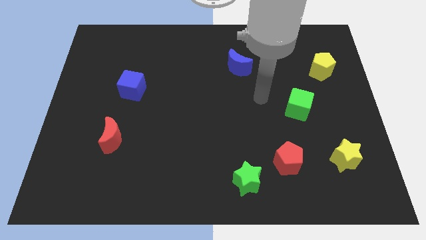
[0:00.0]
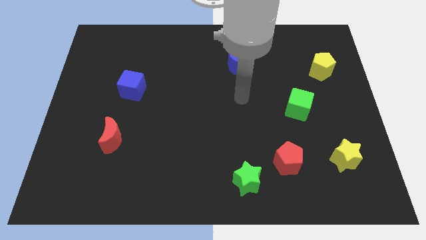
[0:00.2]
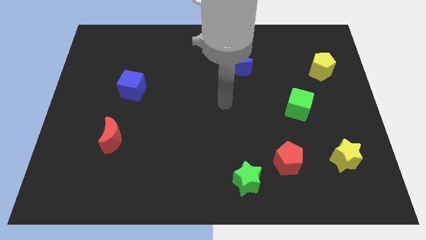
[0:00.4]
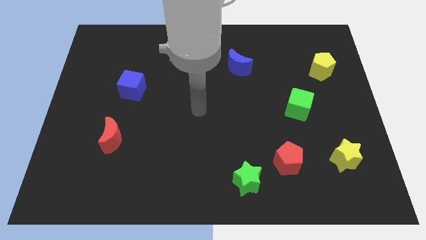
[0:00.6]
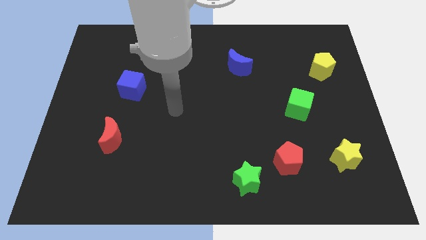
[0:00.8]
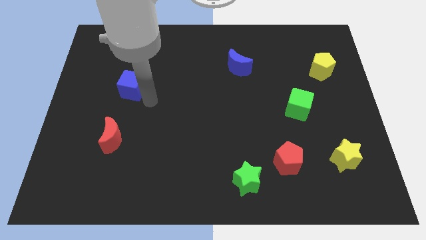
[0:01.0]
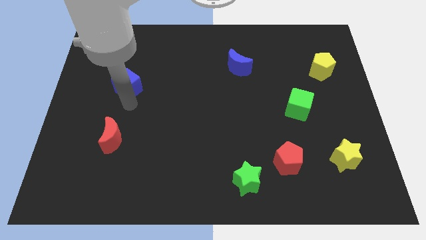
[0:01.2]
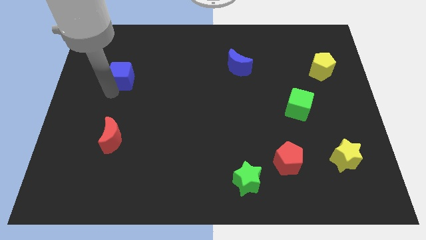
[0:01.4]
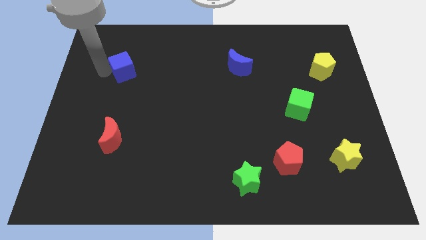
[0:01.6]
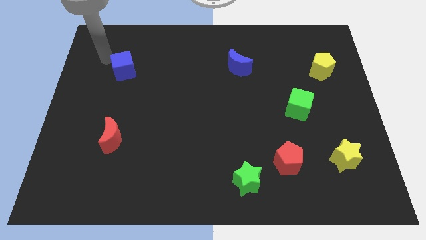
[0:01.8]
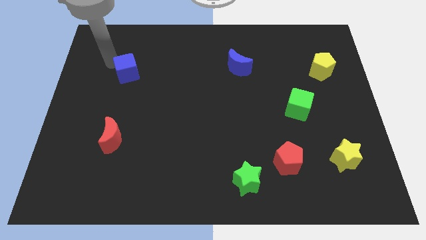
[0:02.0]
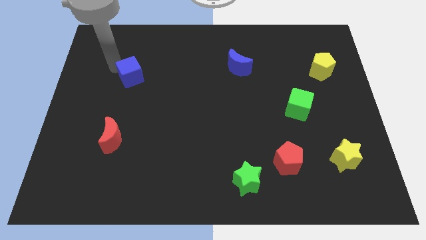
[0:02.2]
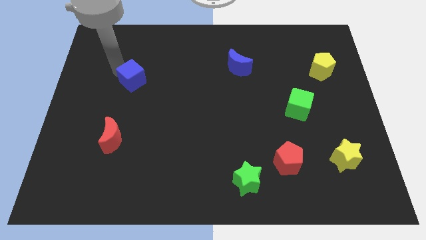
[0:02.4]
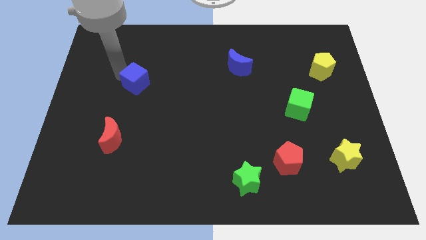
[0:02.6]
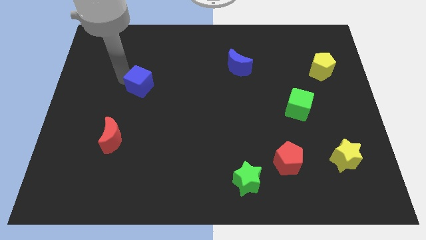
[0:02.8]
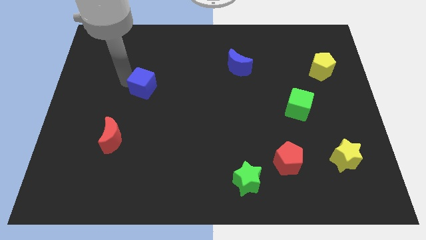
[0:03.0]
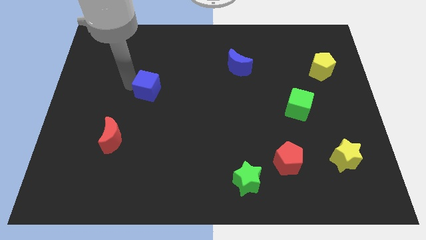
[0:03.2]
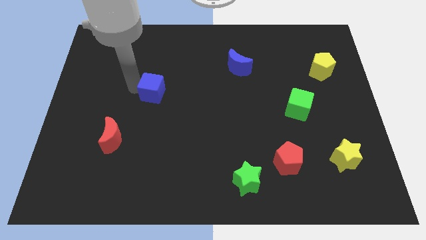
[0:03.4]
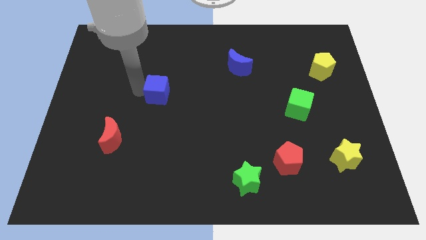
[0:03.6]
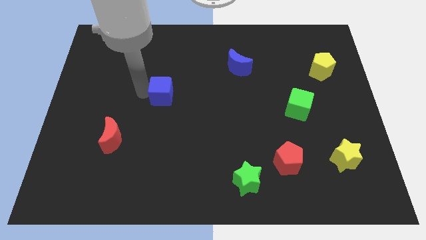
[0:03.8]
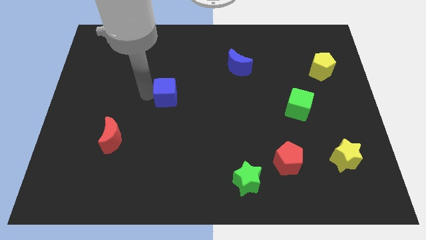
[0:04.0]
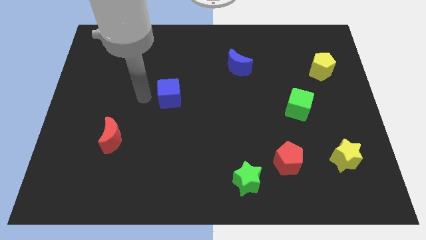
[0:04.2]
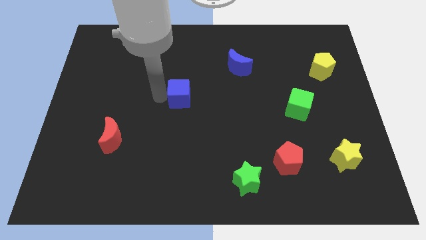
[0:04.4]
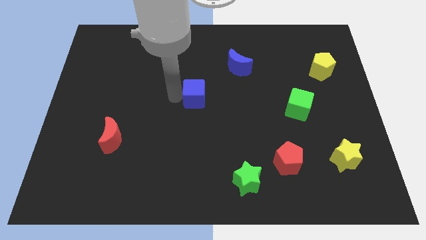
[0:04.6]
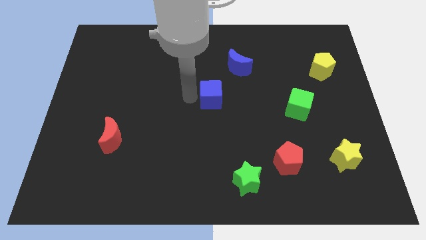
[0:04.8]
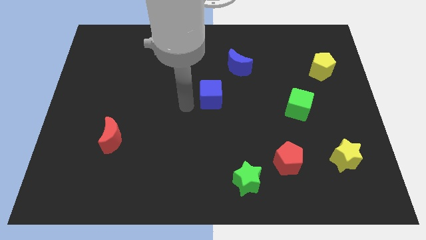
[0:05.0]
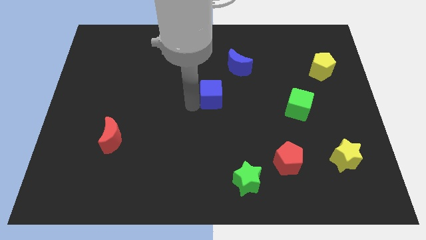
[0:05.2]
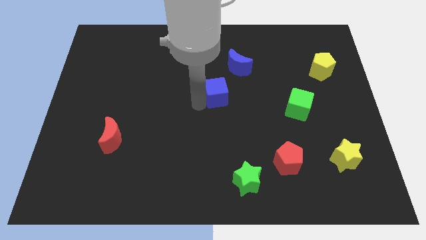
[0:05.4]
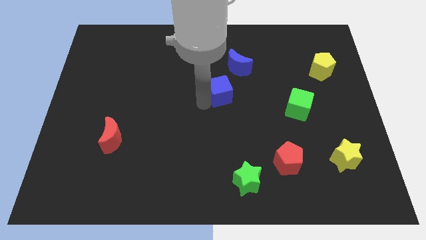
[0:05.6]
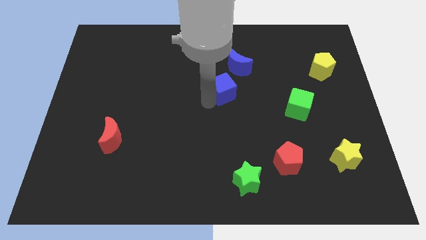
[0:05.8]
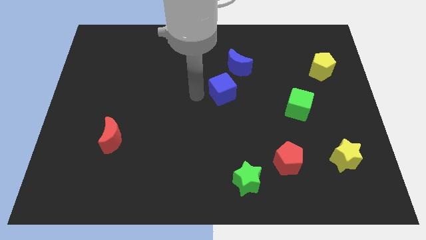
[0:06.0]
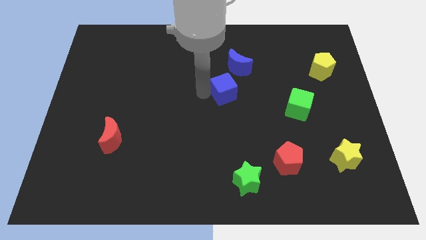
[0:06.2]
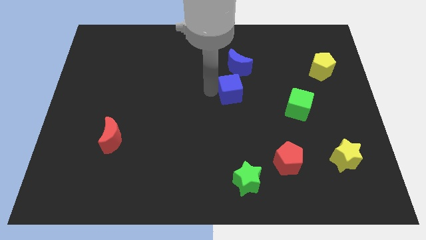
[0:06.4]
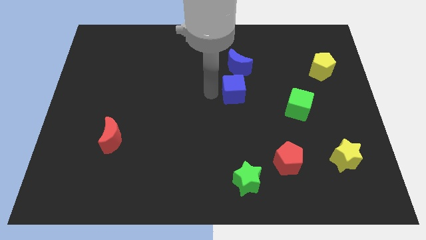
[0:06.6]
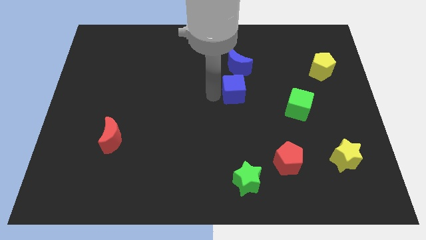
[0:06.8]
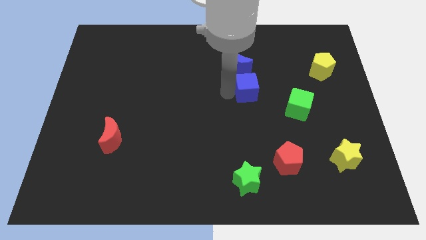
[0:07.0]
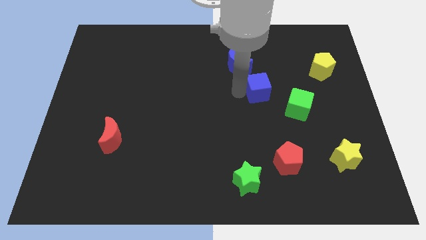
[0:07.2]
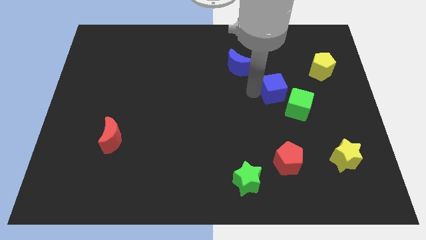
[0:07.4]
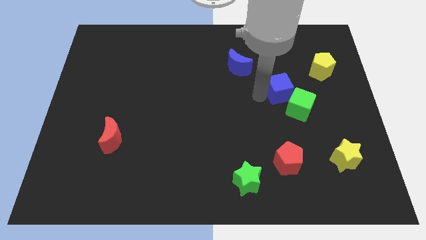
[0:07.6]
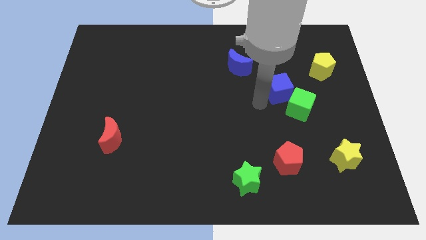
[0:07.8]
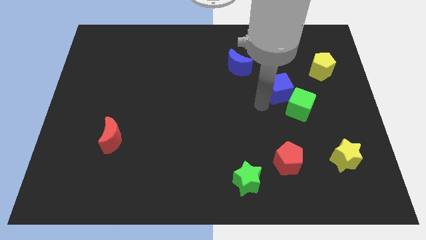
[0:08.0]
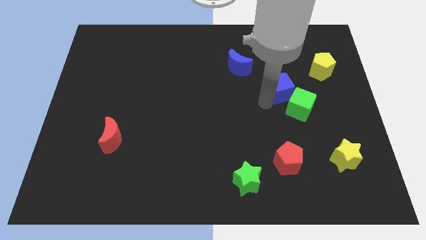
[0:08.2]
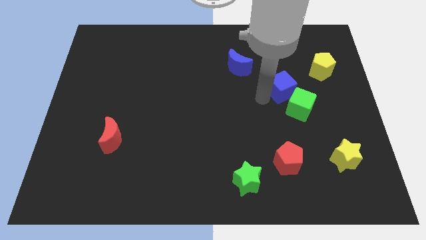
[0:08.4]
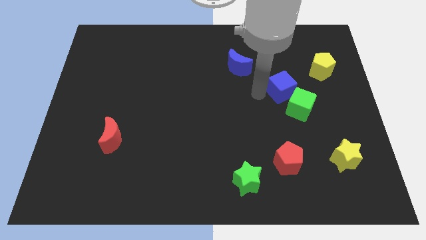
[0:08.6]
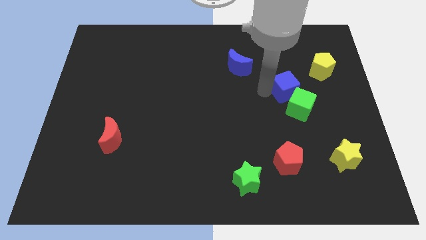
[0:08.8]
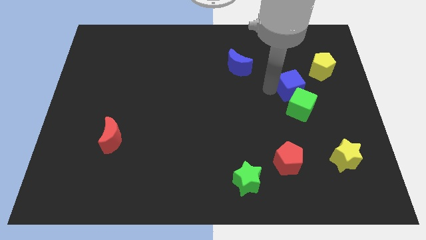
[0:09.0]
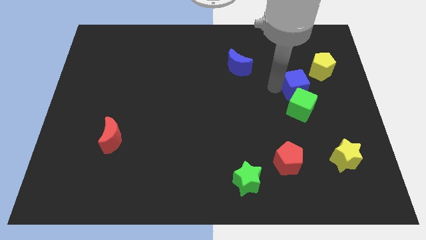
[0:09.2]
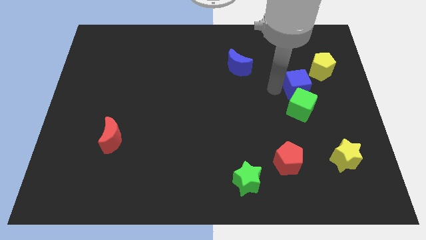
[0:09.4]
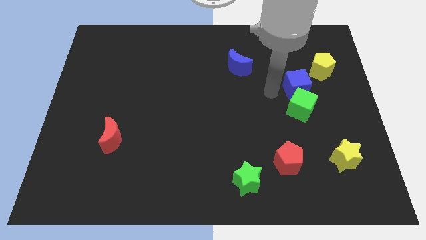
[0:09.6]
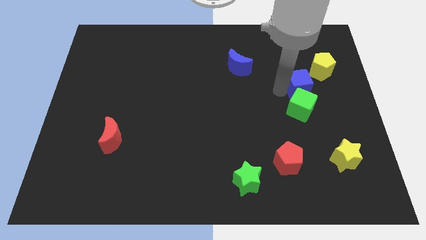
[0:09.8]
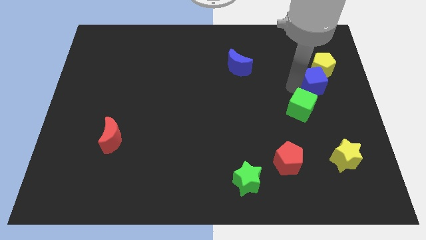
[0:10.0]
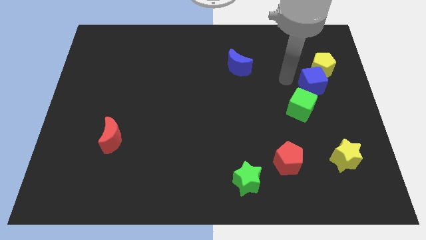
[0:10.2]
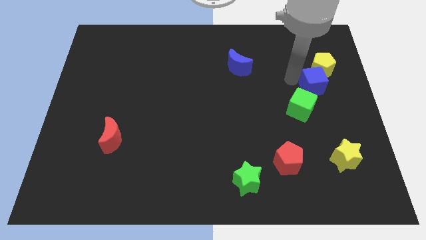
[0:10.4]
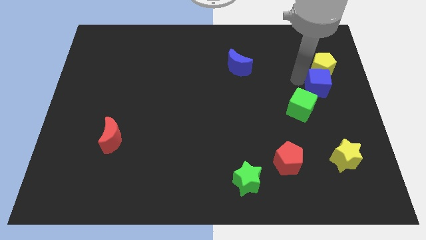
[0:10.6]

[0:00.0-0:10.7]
move the blue cube to the right side
